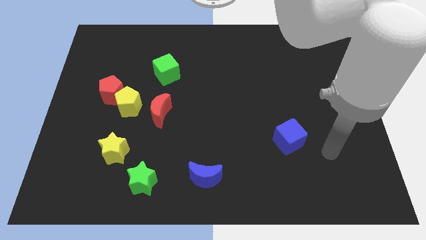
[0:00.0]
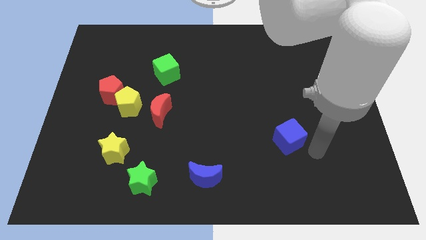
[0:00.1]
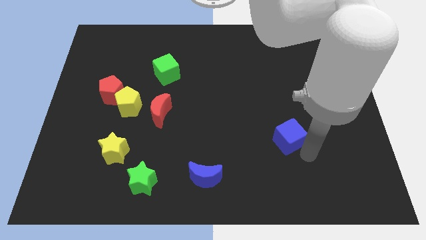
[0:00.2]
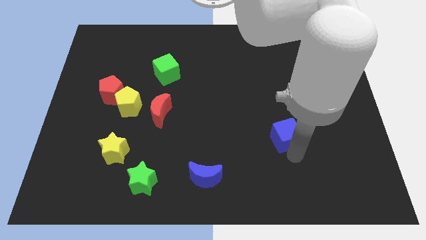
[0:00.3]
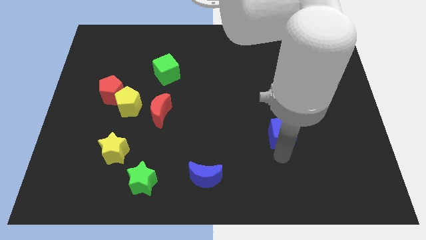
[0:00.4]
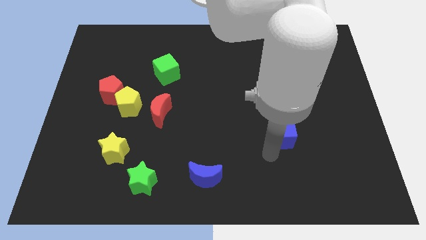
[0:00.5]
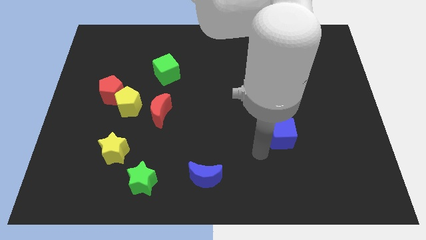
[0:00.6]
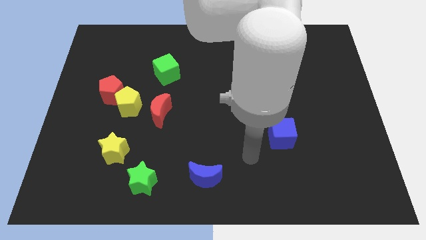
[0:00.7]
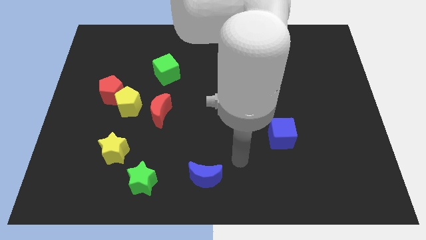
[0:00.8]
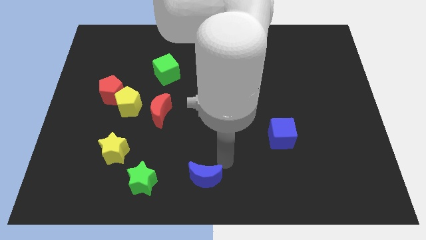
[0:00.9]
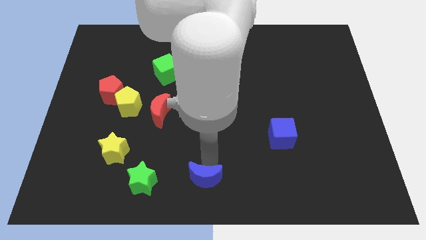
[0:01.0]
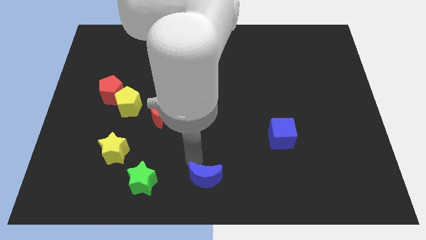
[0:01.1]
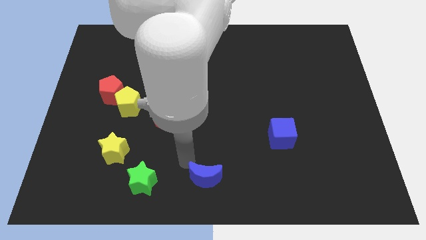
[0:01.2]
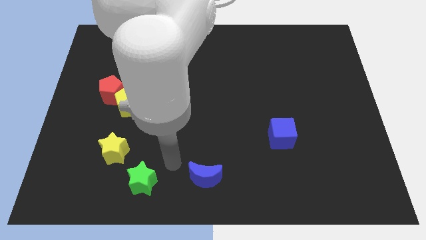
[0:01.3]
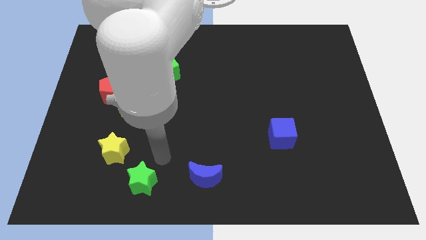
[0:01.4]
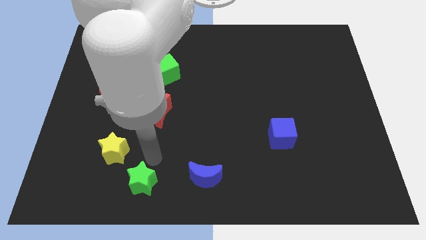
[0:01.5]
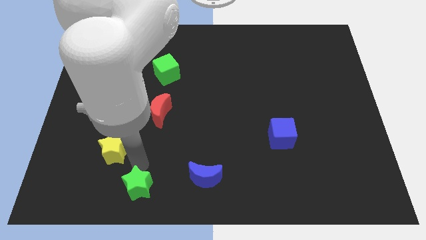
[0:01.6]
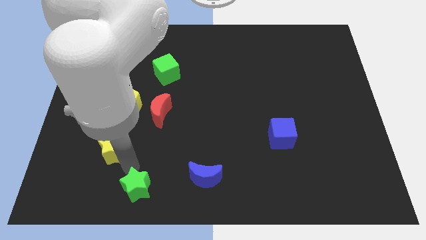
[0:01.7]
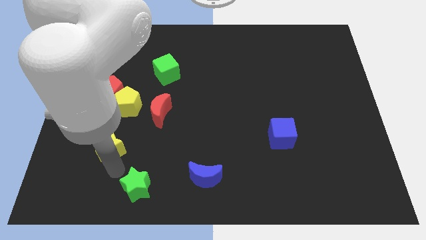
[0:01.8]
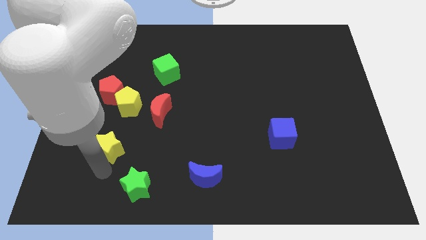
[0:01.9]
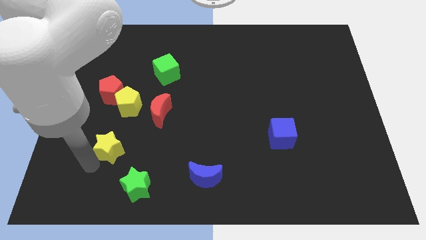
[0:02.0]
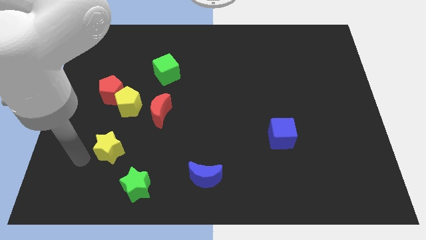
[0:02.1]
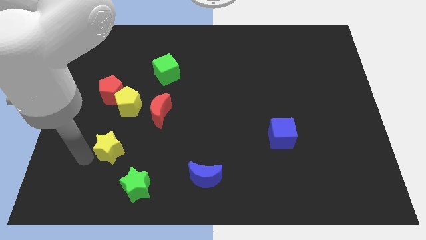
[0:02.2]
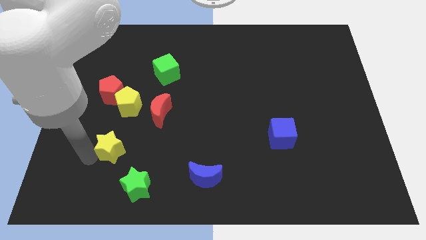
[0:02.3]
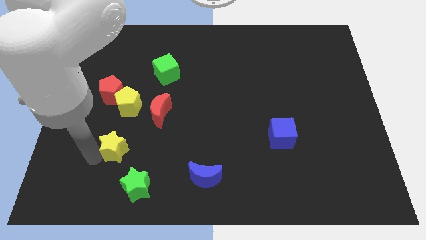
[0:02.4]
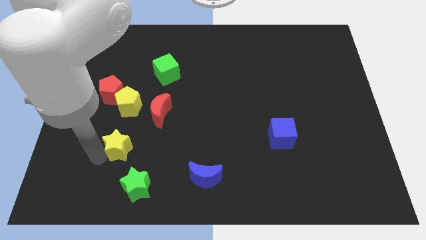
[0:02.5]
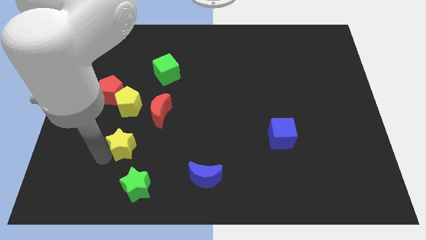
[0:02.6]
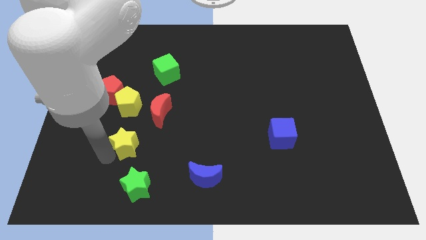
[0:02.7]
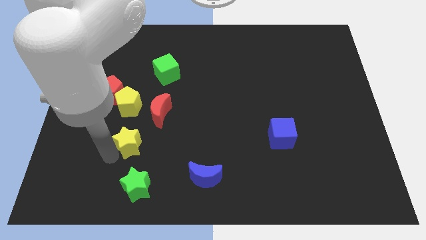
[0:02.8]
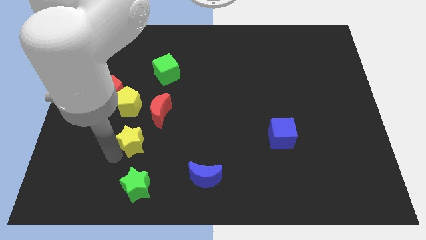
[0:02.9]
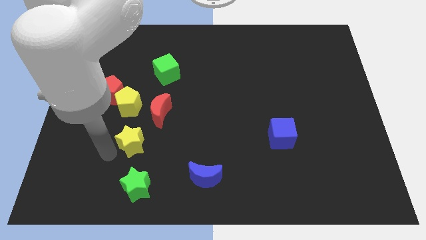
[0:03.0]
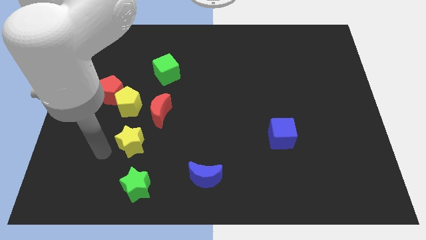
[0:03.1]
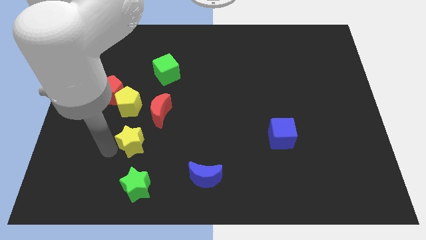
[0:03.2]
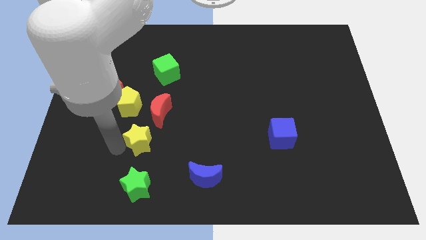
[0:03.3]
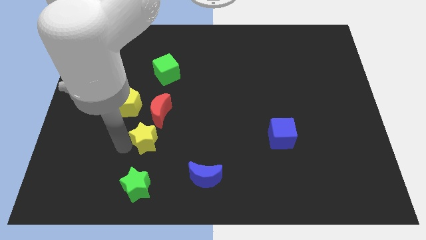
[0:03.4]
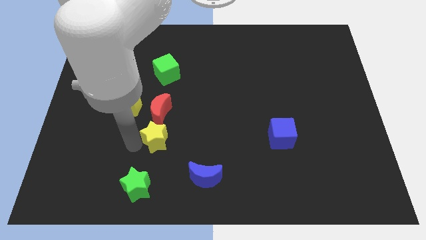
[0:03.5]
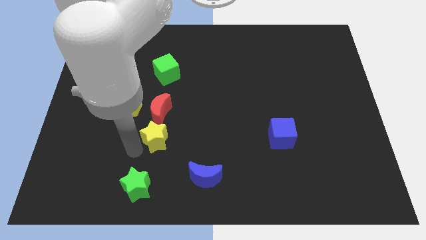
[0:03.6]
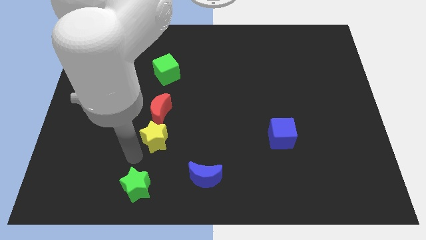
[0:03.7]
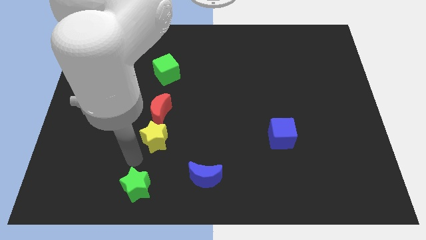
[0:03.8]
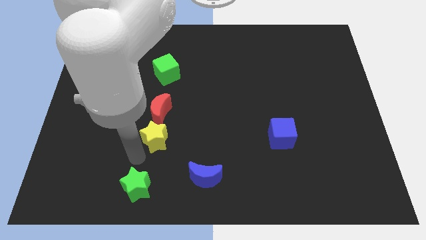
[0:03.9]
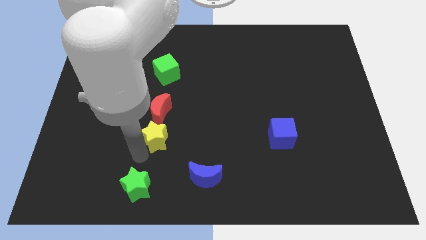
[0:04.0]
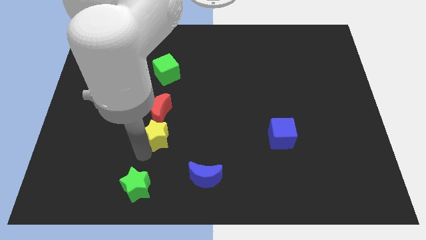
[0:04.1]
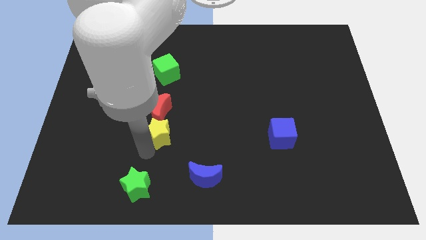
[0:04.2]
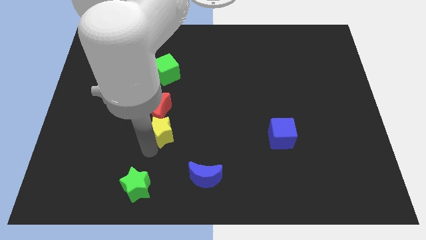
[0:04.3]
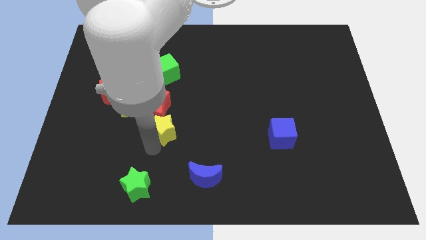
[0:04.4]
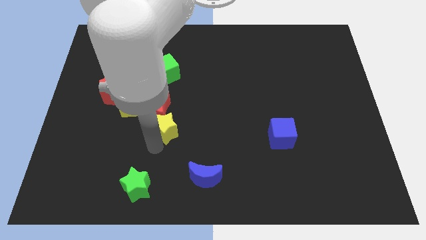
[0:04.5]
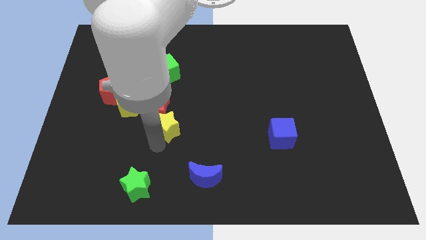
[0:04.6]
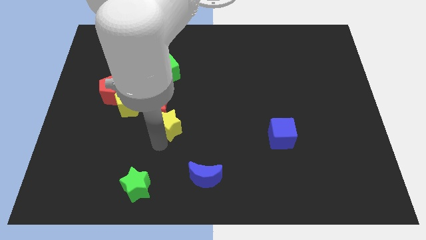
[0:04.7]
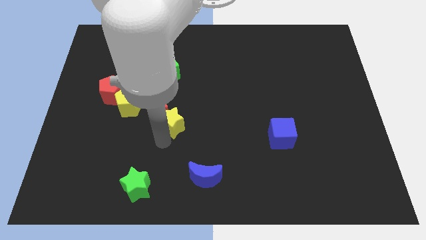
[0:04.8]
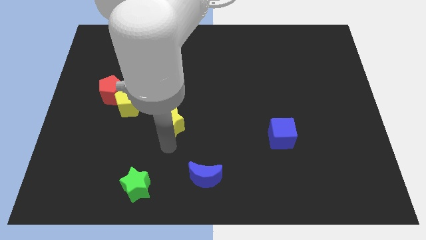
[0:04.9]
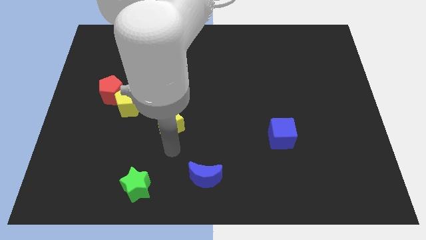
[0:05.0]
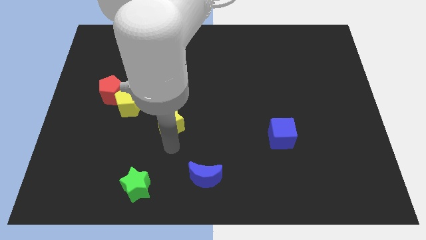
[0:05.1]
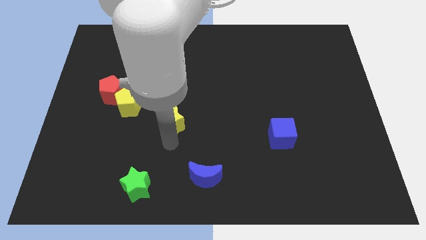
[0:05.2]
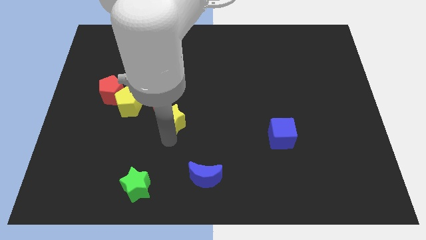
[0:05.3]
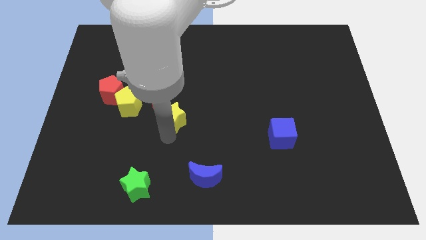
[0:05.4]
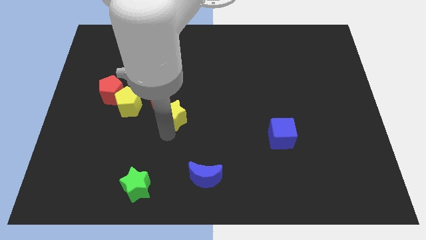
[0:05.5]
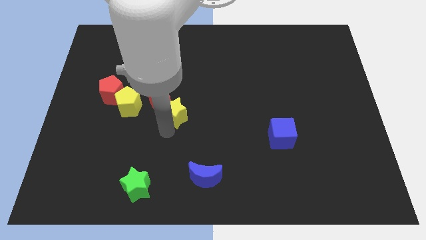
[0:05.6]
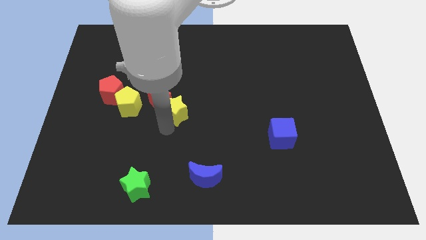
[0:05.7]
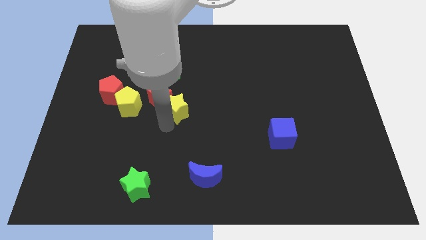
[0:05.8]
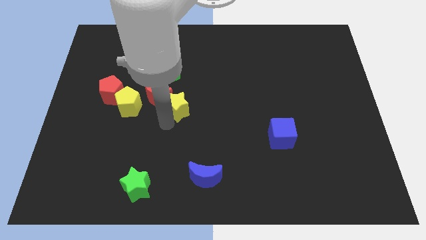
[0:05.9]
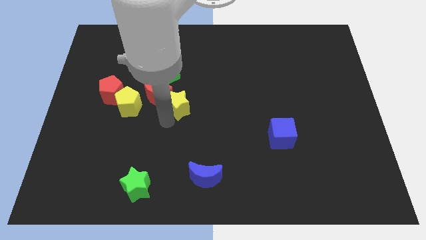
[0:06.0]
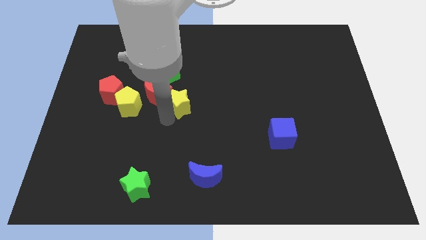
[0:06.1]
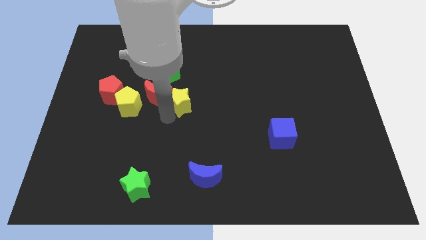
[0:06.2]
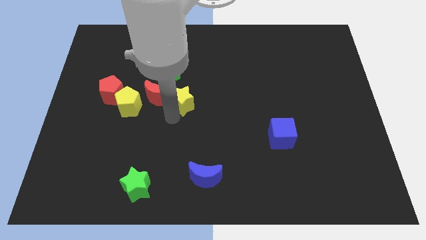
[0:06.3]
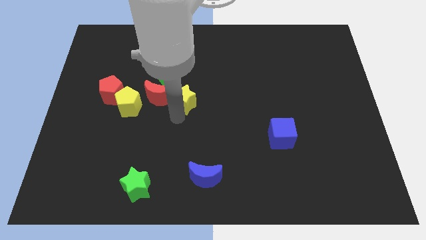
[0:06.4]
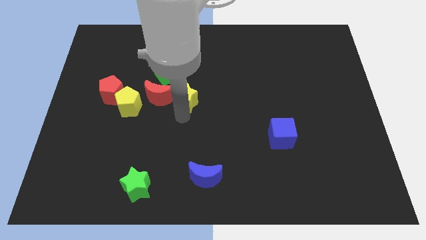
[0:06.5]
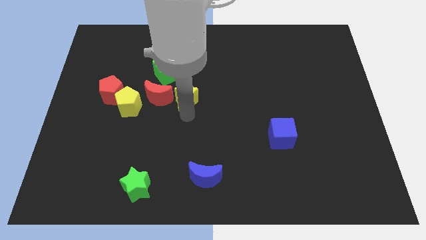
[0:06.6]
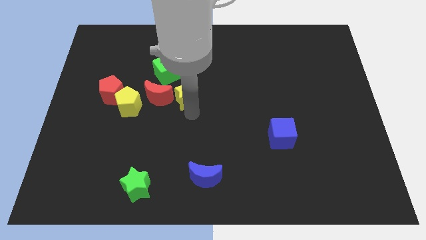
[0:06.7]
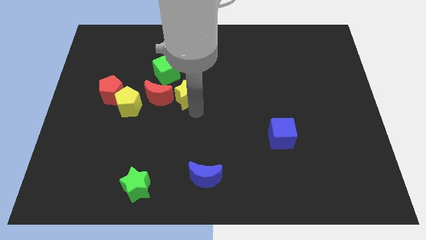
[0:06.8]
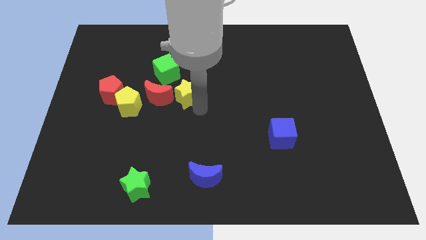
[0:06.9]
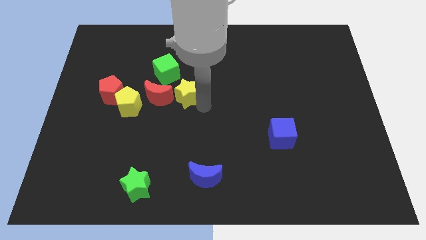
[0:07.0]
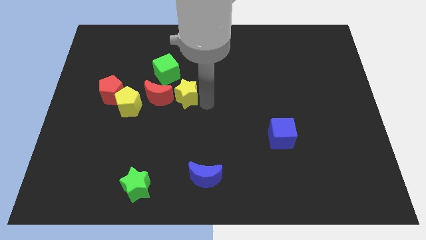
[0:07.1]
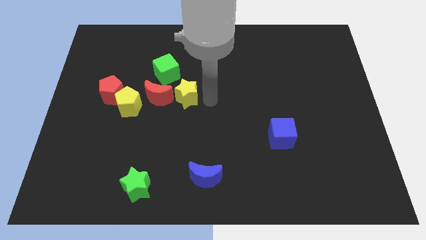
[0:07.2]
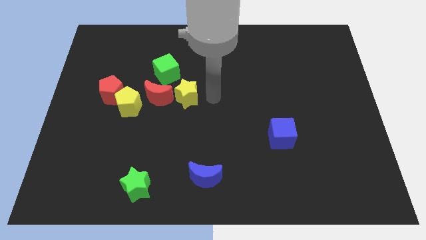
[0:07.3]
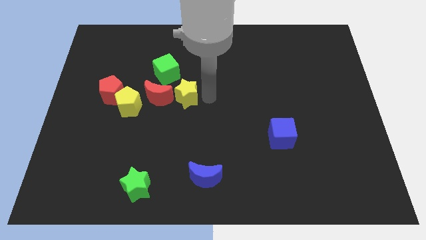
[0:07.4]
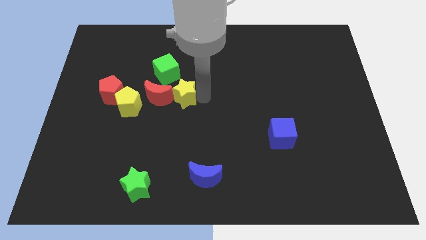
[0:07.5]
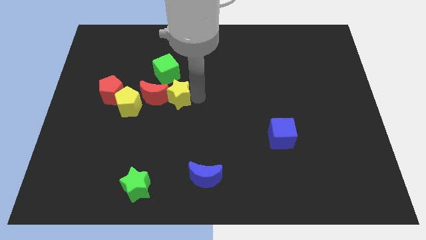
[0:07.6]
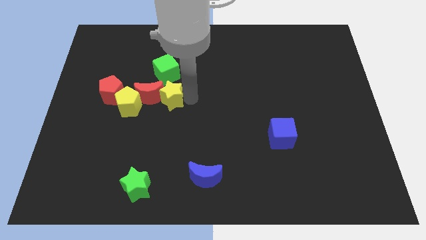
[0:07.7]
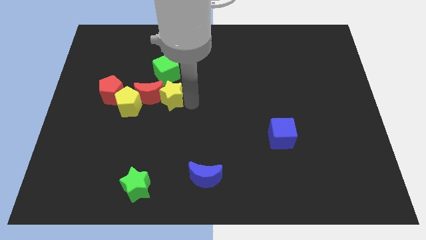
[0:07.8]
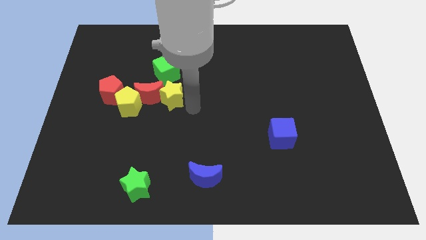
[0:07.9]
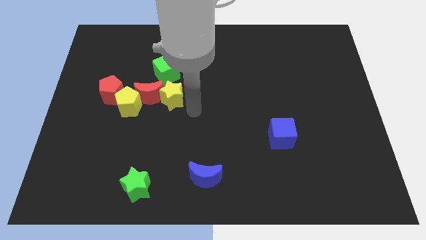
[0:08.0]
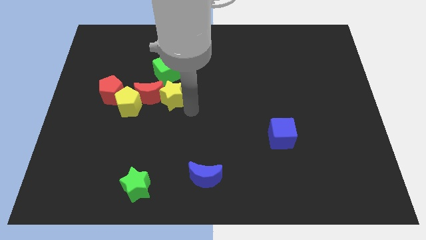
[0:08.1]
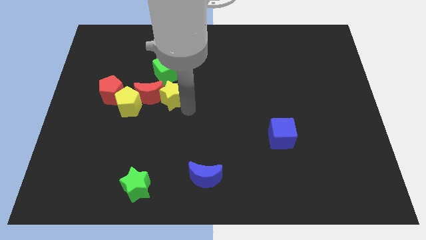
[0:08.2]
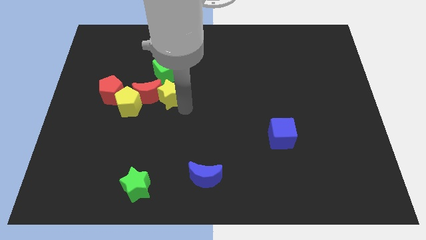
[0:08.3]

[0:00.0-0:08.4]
push the yellow star to the top right of the yellow pentagon
